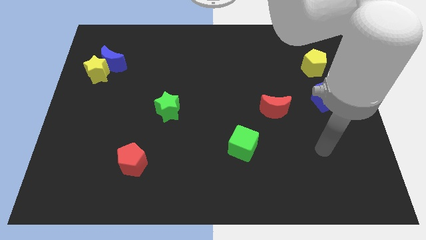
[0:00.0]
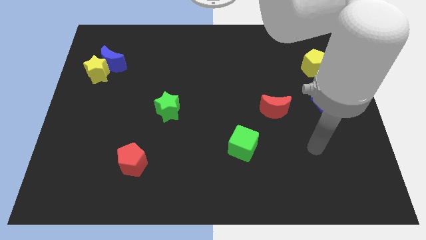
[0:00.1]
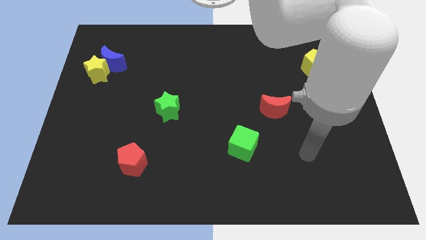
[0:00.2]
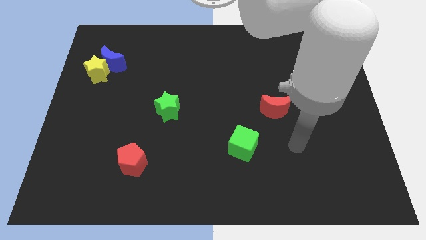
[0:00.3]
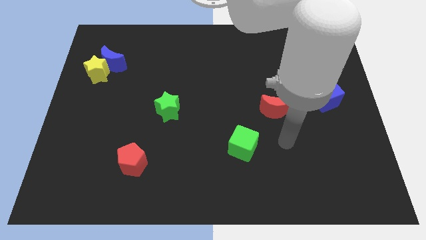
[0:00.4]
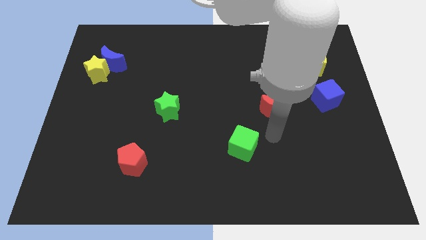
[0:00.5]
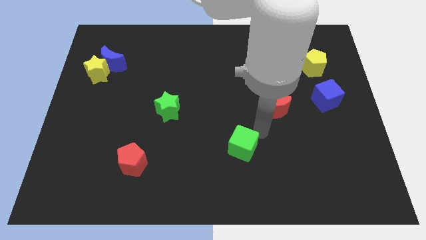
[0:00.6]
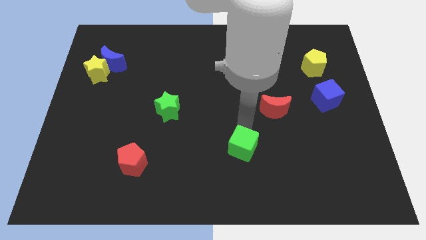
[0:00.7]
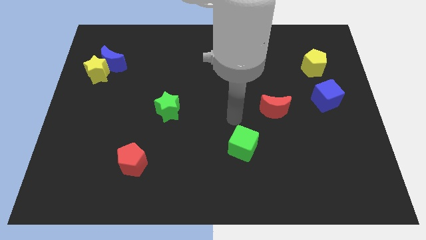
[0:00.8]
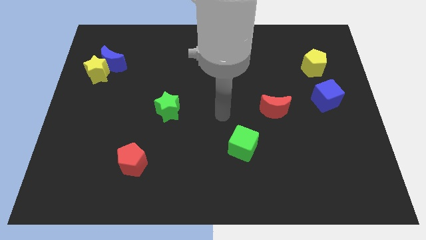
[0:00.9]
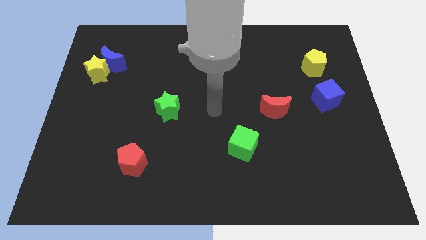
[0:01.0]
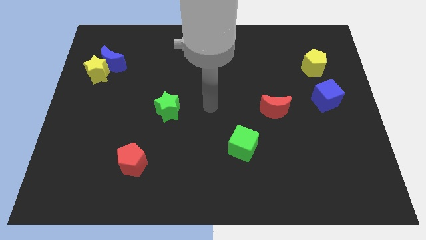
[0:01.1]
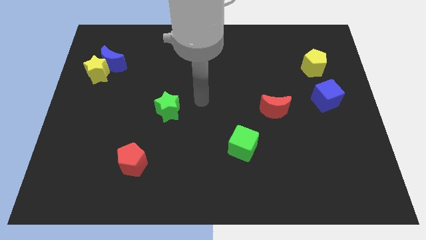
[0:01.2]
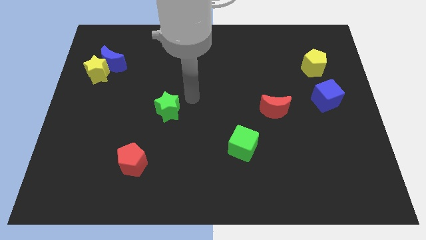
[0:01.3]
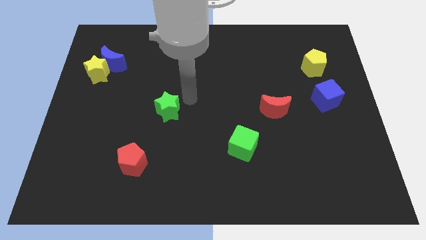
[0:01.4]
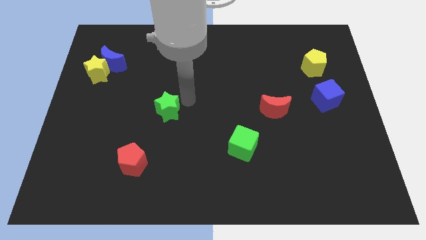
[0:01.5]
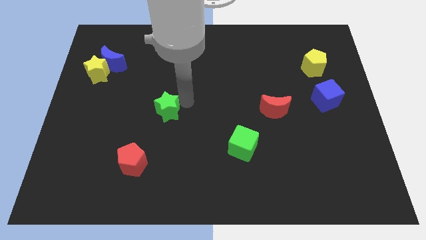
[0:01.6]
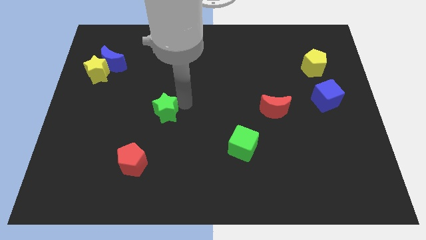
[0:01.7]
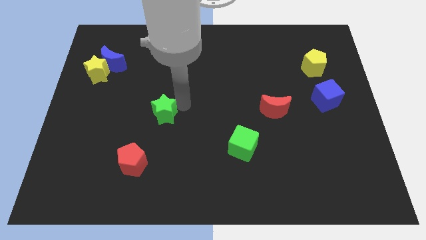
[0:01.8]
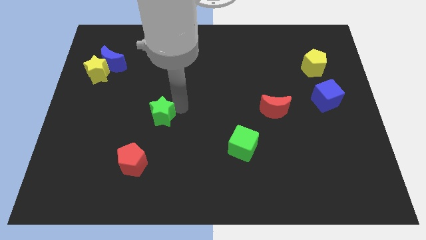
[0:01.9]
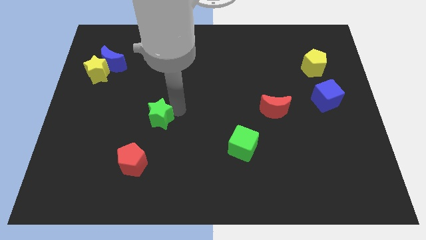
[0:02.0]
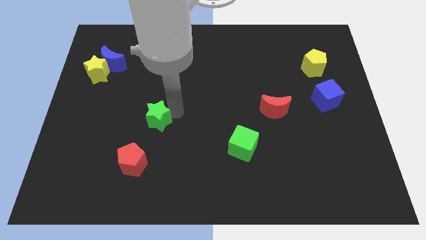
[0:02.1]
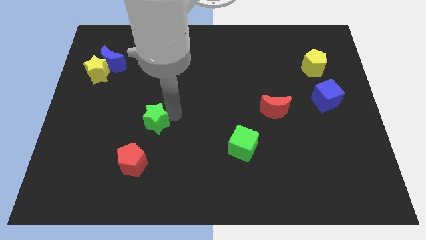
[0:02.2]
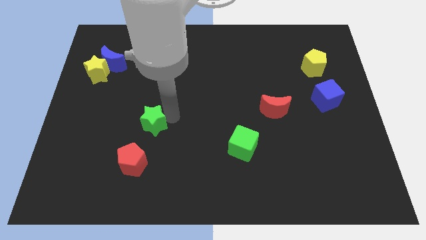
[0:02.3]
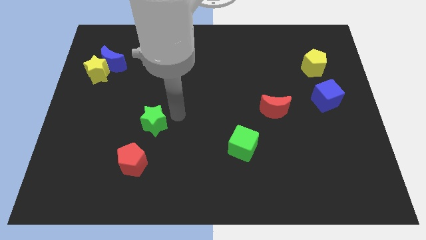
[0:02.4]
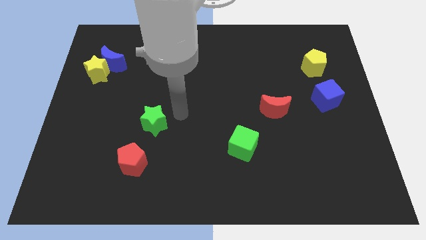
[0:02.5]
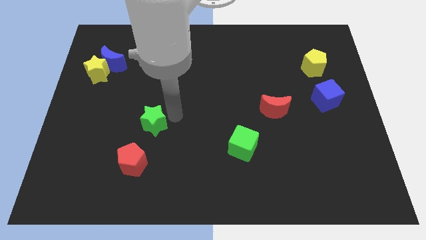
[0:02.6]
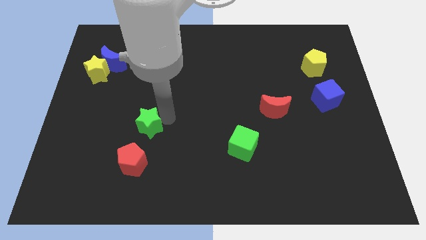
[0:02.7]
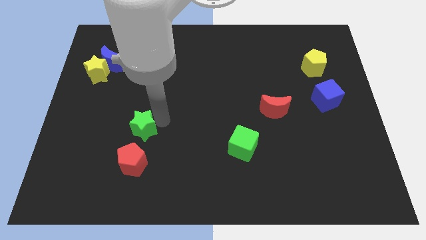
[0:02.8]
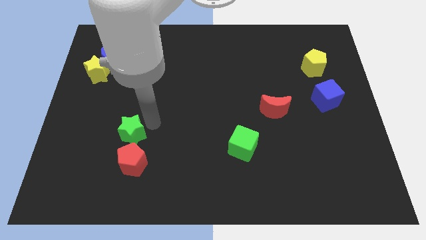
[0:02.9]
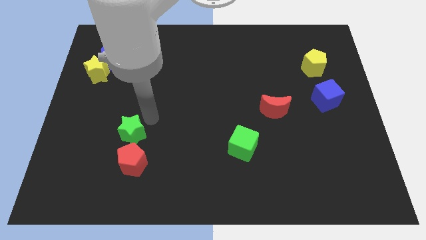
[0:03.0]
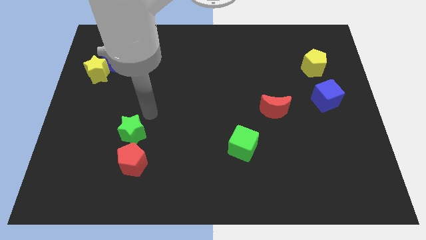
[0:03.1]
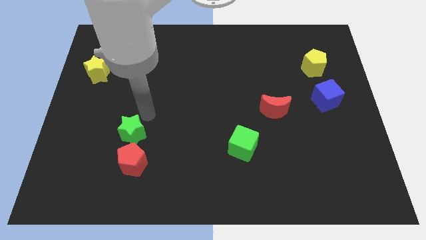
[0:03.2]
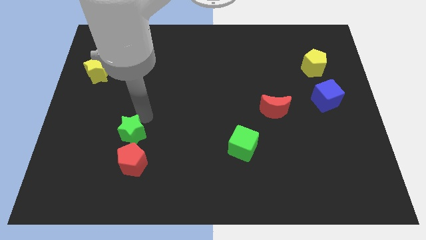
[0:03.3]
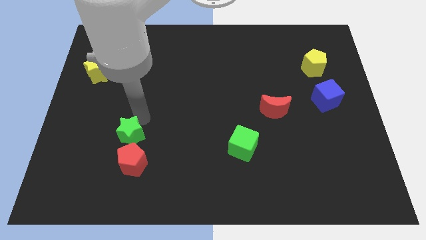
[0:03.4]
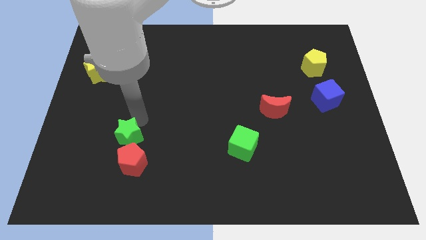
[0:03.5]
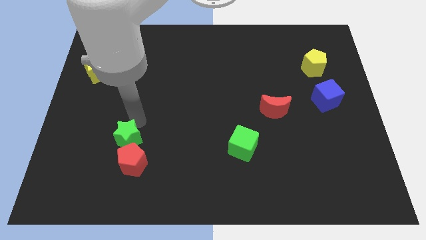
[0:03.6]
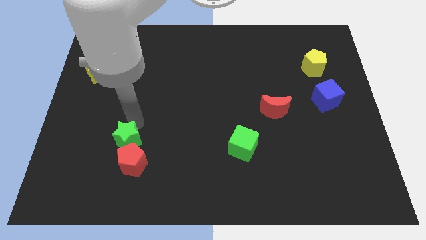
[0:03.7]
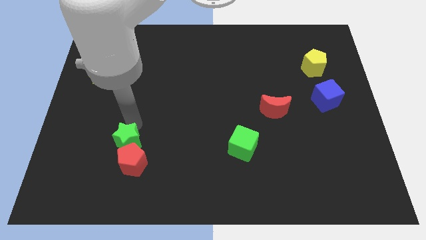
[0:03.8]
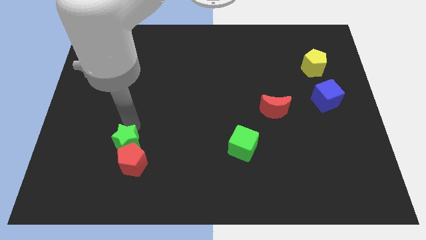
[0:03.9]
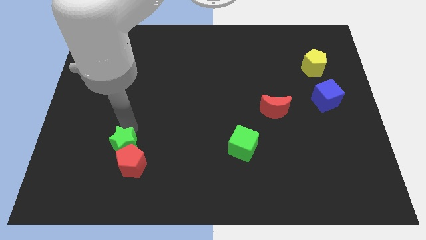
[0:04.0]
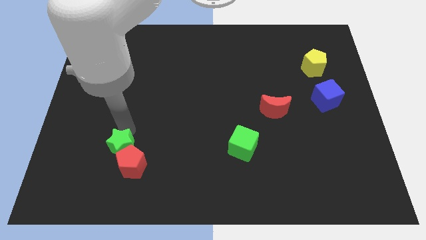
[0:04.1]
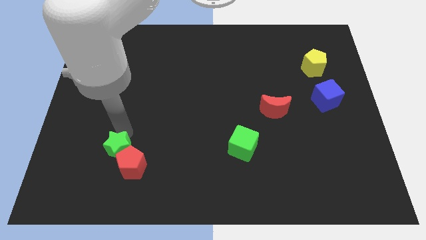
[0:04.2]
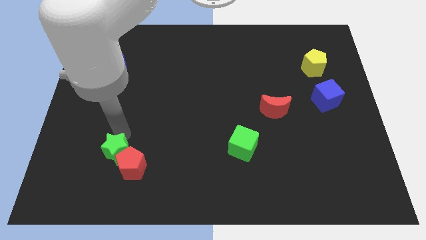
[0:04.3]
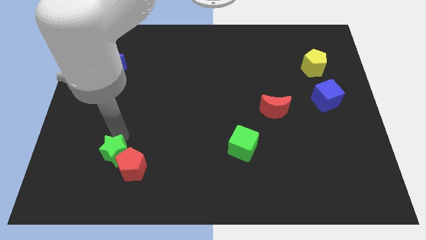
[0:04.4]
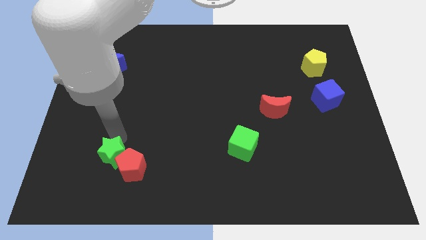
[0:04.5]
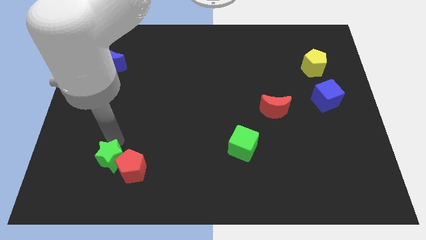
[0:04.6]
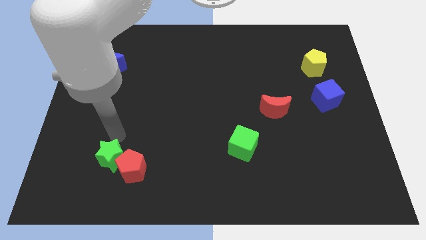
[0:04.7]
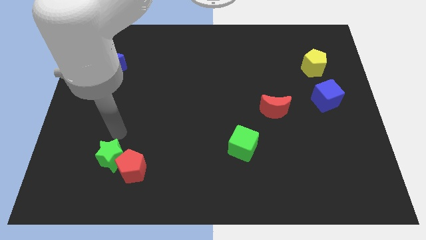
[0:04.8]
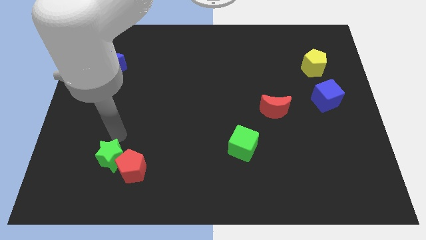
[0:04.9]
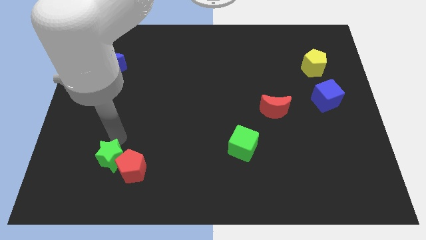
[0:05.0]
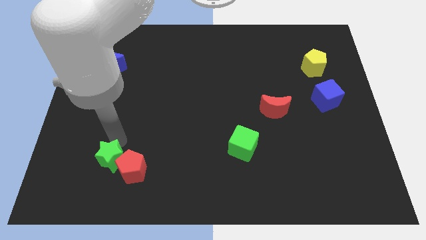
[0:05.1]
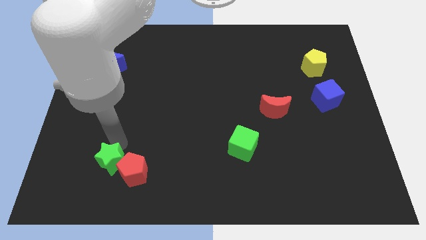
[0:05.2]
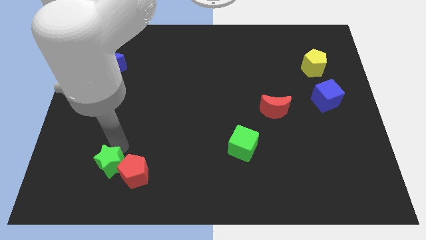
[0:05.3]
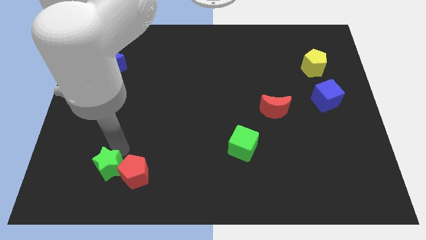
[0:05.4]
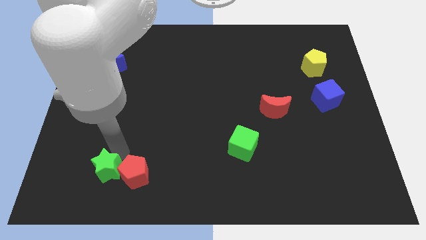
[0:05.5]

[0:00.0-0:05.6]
move the green star to the bottom left side of the red pentagon

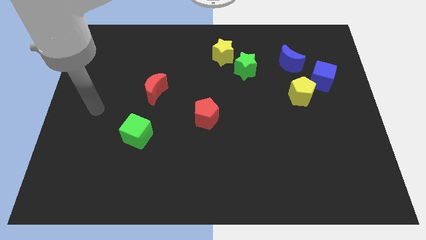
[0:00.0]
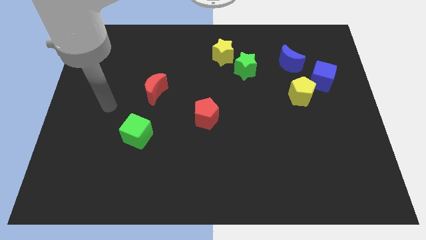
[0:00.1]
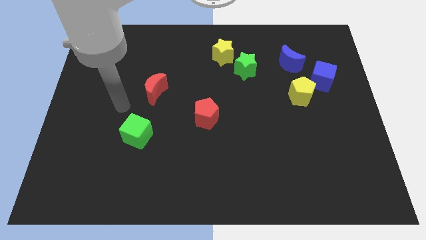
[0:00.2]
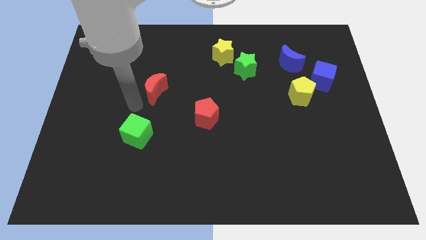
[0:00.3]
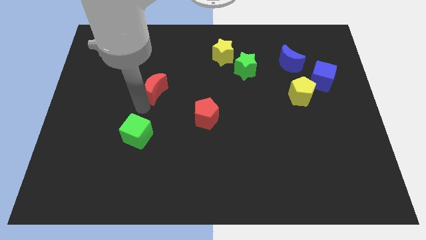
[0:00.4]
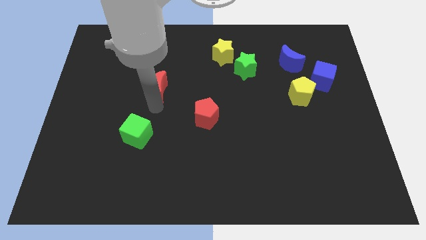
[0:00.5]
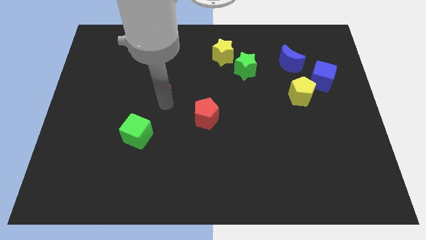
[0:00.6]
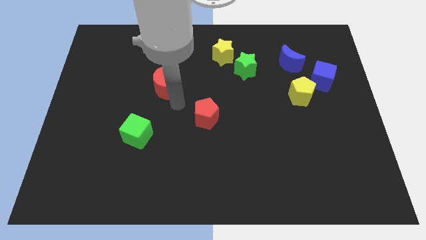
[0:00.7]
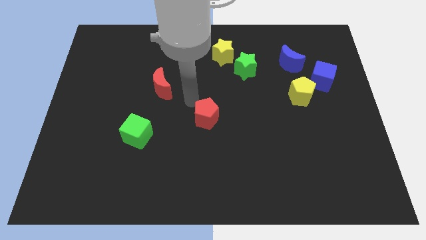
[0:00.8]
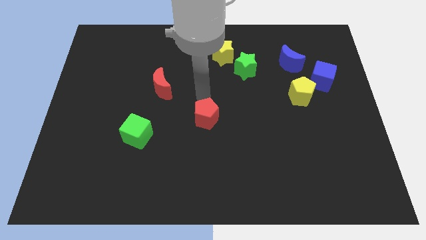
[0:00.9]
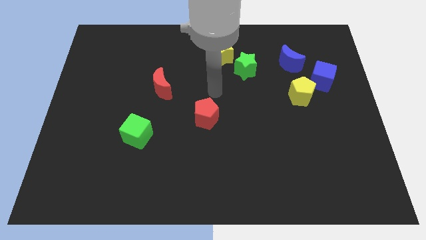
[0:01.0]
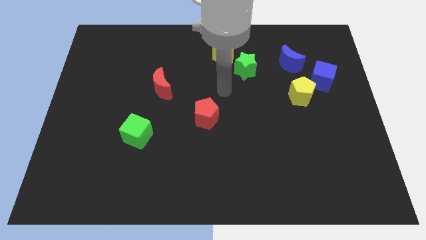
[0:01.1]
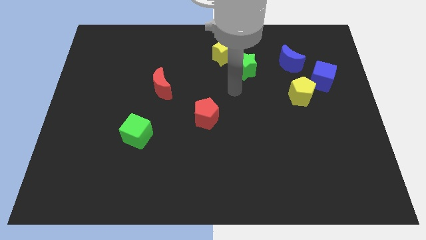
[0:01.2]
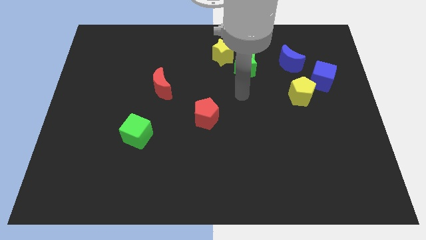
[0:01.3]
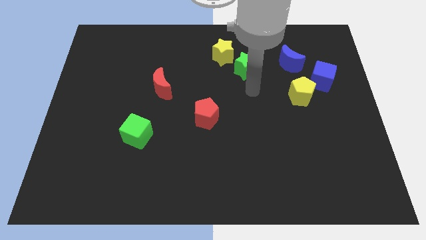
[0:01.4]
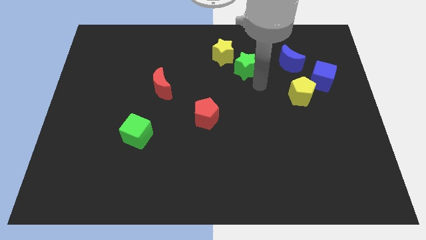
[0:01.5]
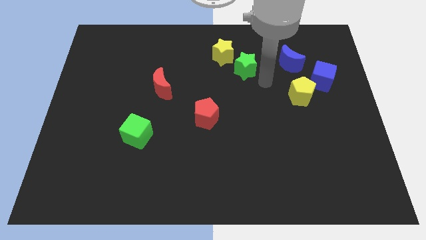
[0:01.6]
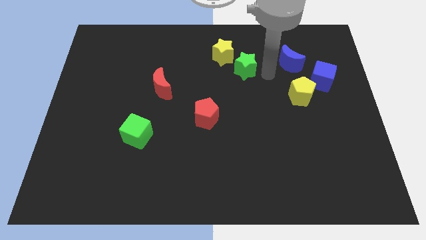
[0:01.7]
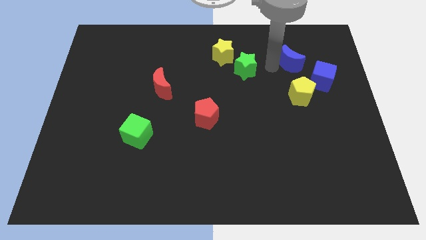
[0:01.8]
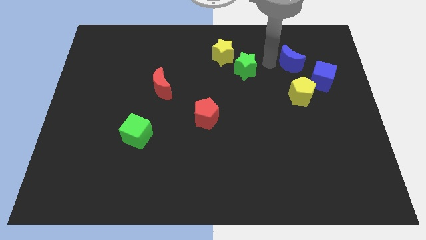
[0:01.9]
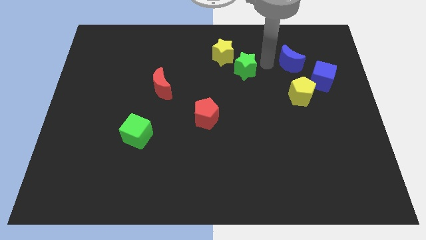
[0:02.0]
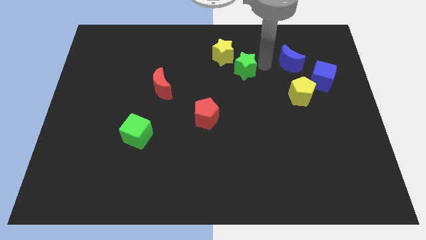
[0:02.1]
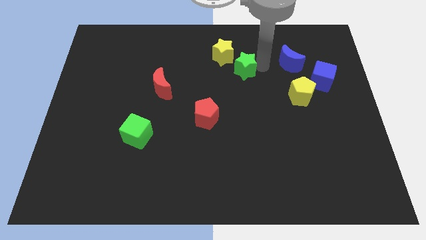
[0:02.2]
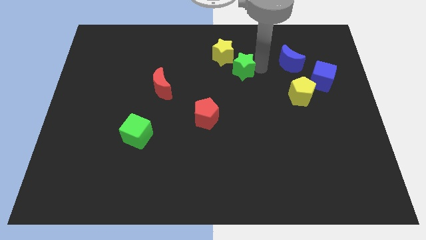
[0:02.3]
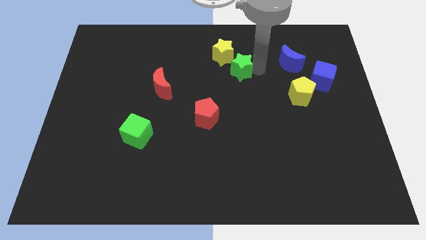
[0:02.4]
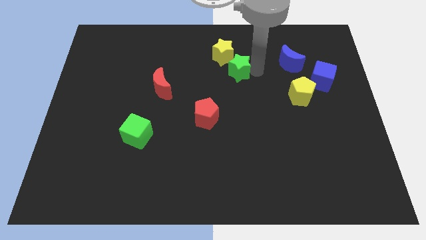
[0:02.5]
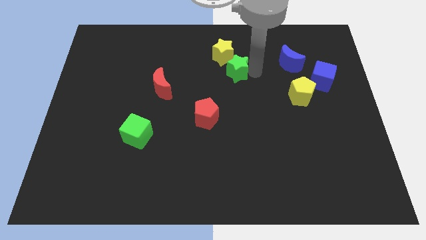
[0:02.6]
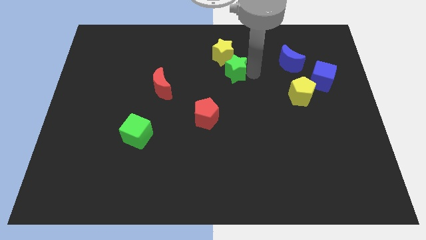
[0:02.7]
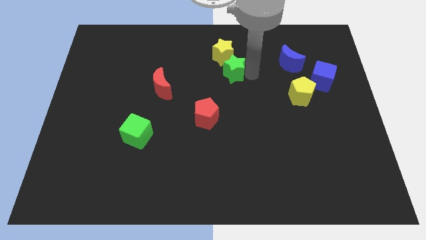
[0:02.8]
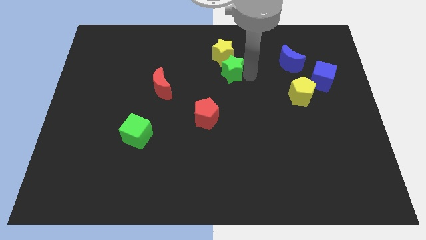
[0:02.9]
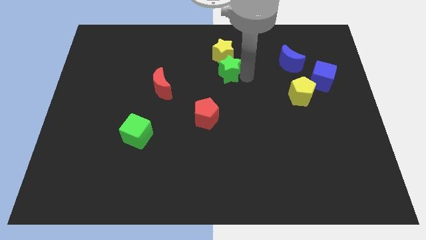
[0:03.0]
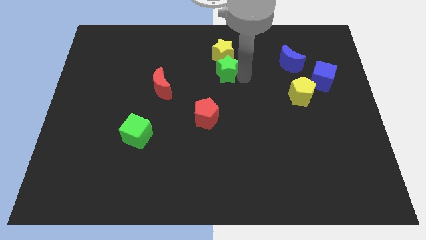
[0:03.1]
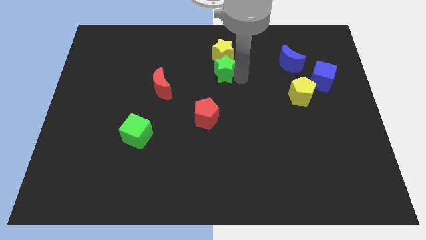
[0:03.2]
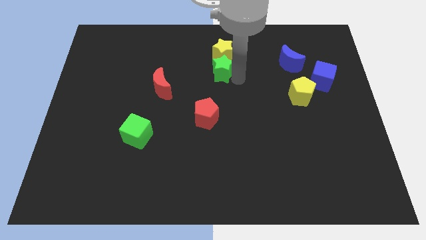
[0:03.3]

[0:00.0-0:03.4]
push the green star above the red pentagon
